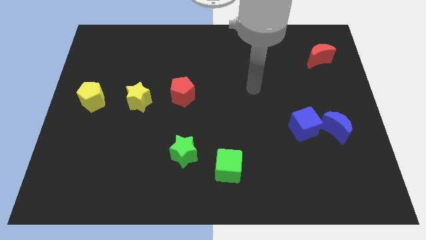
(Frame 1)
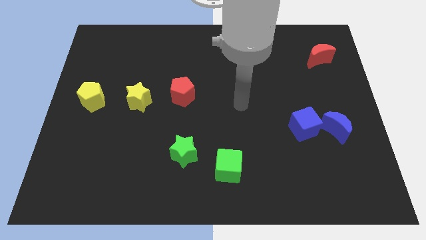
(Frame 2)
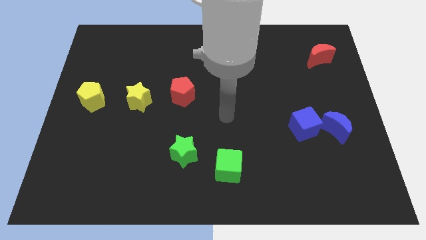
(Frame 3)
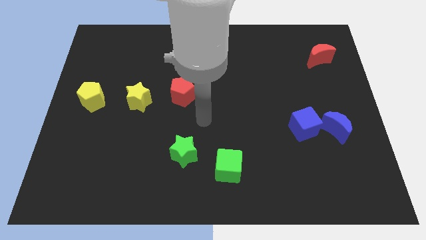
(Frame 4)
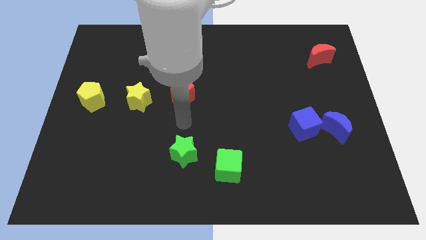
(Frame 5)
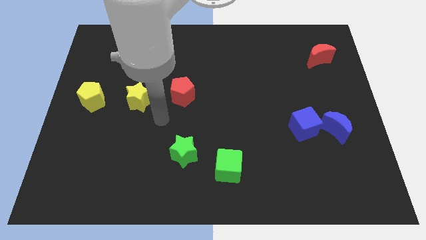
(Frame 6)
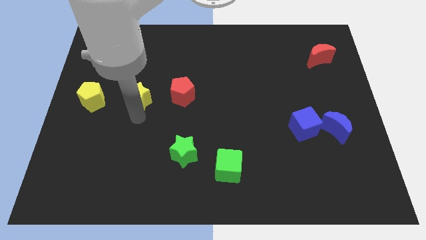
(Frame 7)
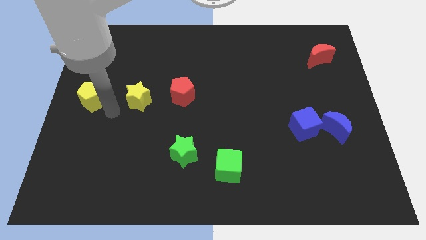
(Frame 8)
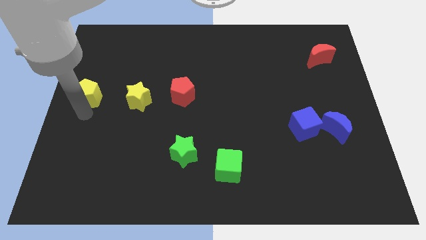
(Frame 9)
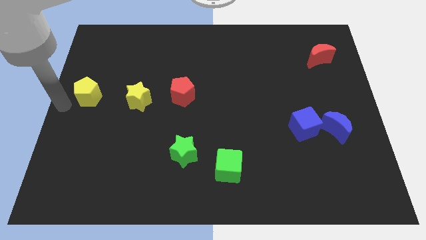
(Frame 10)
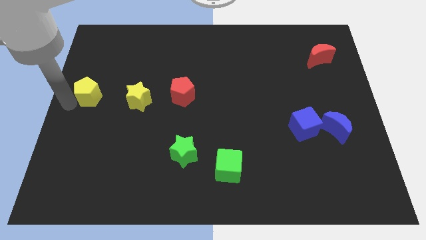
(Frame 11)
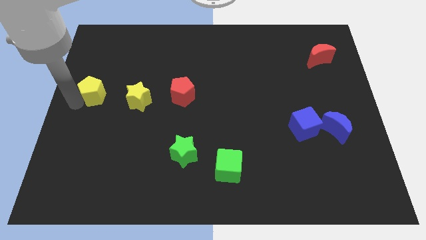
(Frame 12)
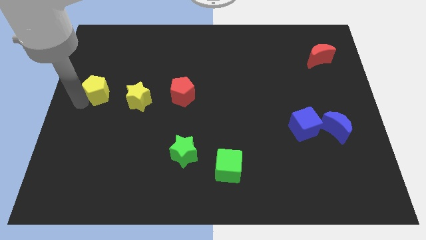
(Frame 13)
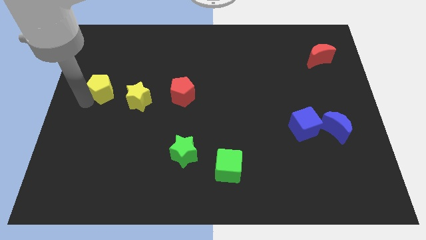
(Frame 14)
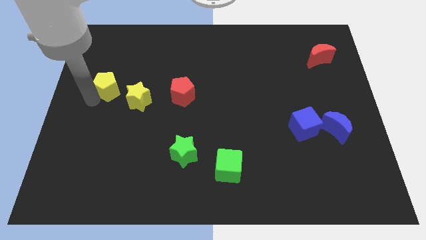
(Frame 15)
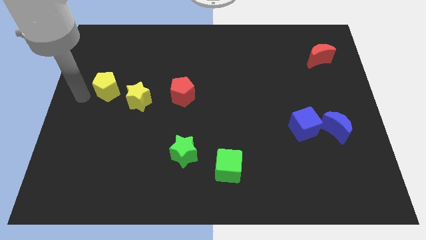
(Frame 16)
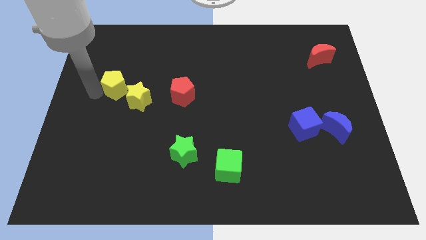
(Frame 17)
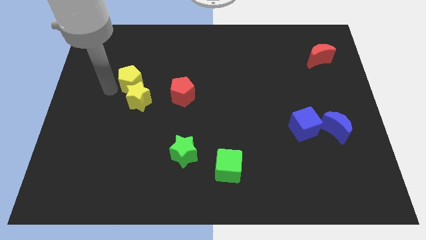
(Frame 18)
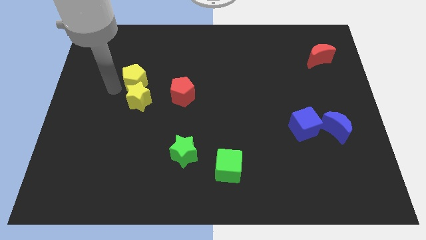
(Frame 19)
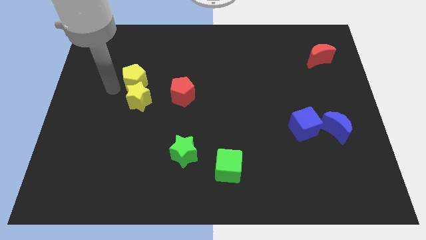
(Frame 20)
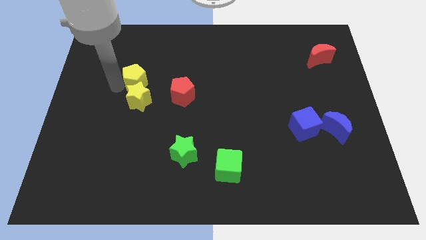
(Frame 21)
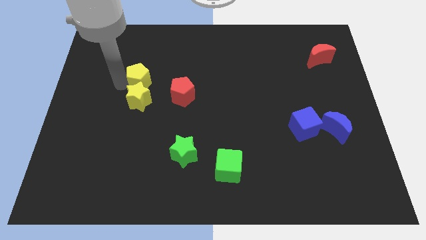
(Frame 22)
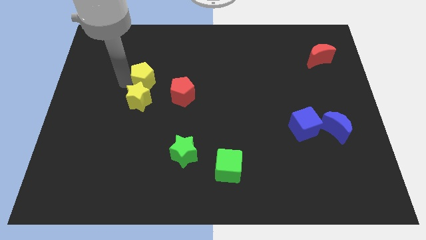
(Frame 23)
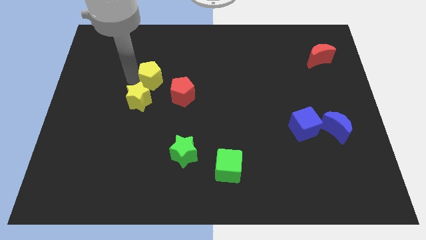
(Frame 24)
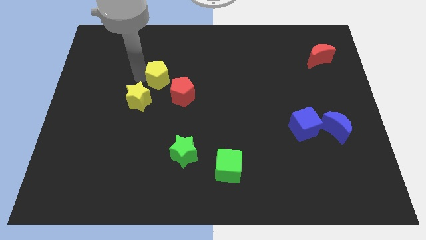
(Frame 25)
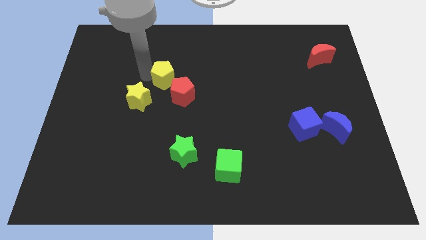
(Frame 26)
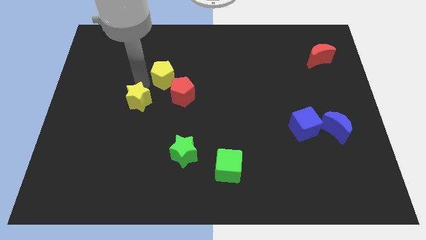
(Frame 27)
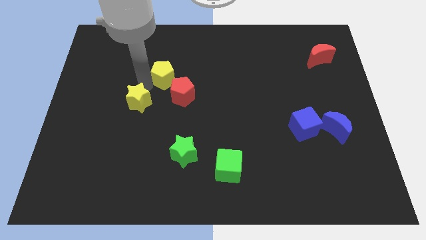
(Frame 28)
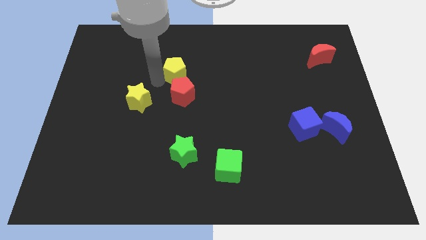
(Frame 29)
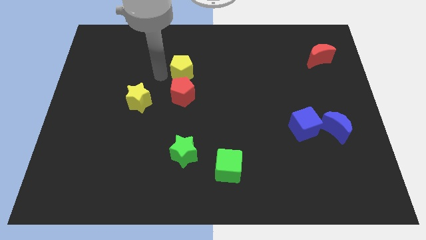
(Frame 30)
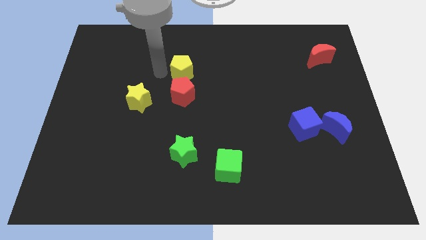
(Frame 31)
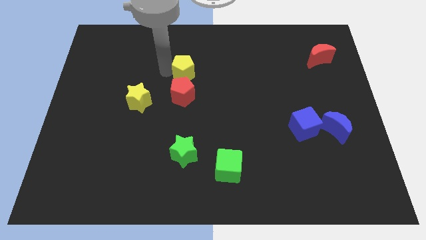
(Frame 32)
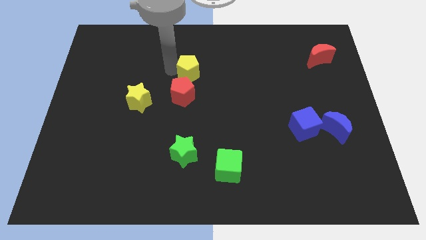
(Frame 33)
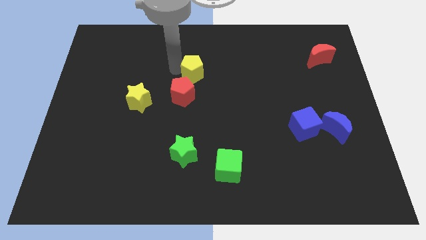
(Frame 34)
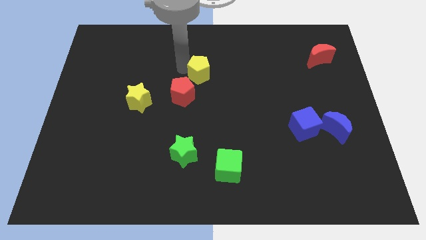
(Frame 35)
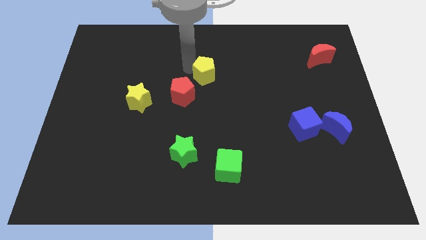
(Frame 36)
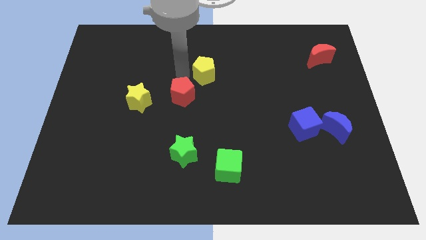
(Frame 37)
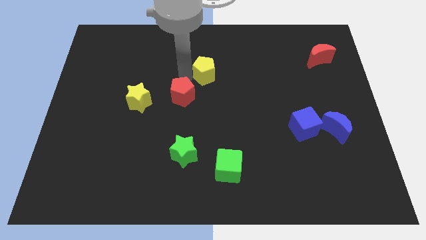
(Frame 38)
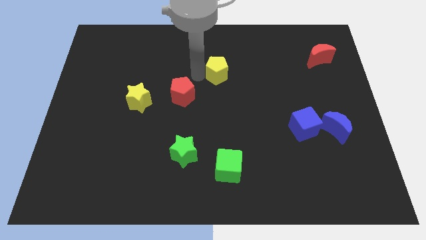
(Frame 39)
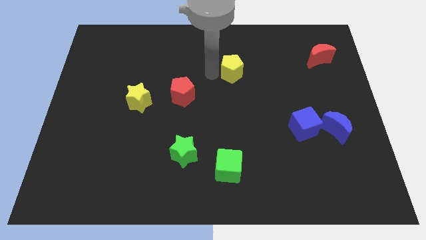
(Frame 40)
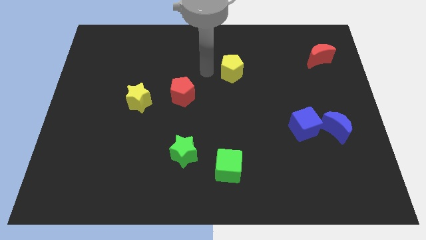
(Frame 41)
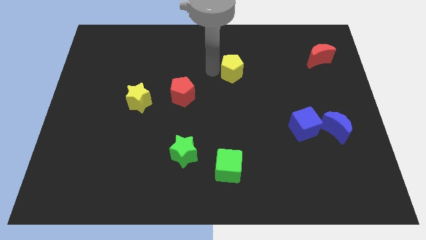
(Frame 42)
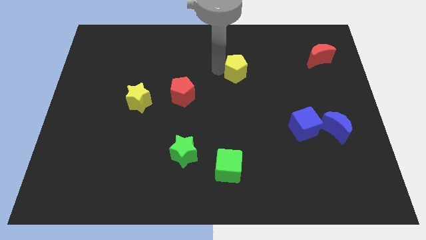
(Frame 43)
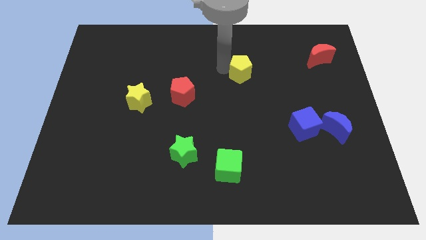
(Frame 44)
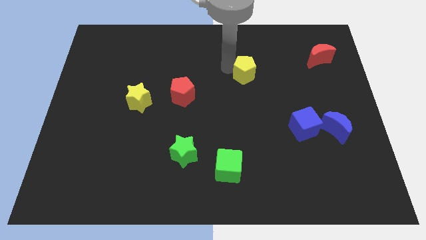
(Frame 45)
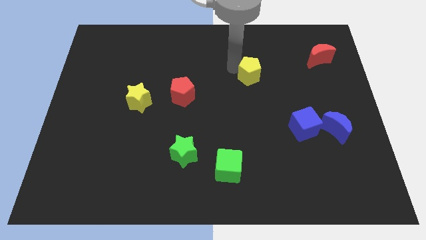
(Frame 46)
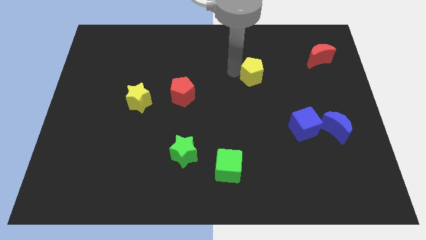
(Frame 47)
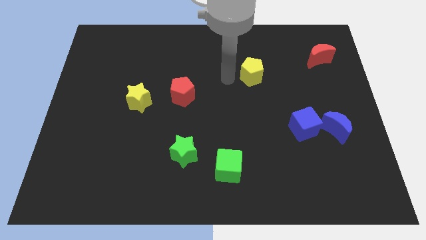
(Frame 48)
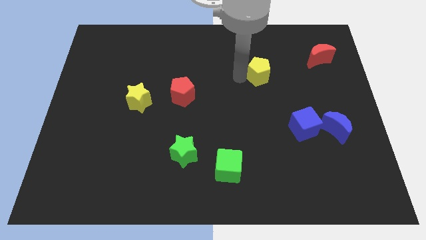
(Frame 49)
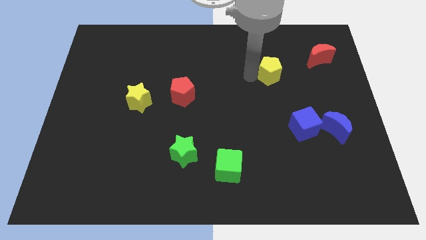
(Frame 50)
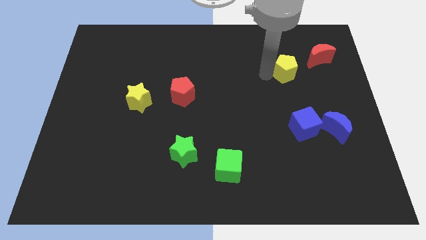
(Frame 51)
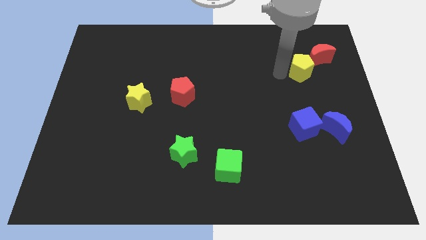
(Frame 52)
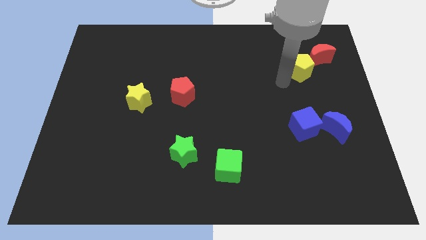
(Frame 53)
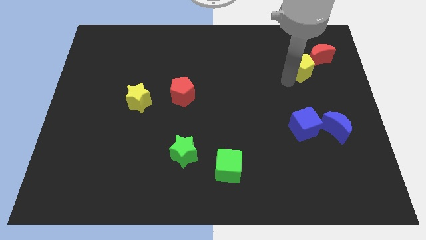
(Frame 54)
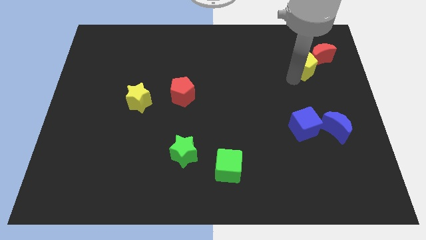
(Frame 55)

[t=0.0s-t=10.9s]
move the yellow pentagon to the red moon

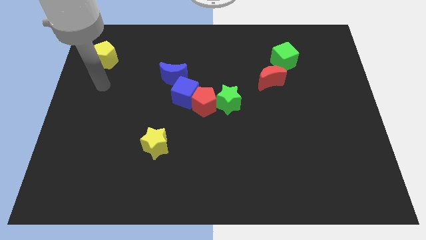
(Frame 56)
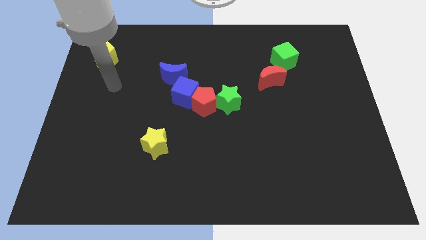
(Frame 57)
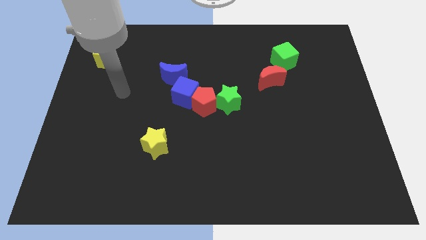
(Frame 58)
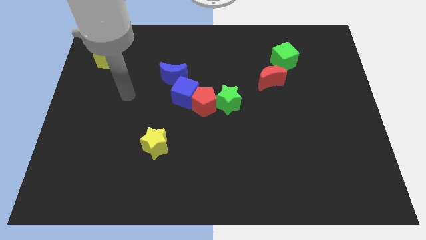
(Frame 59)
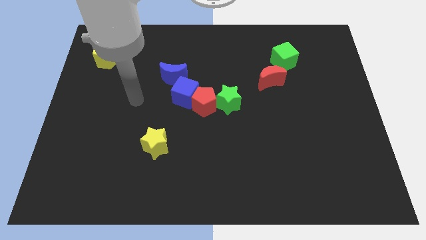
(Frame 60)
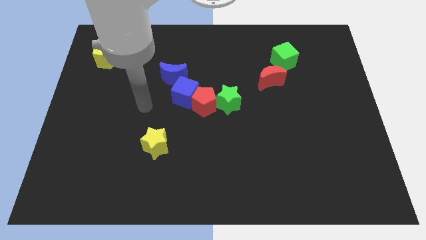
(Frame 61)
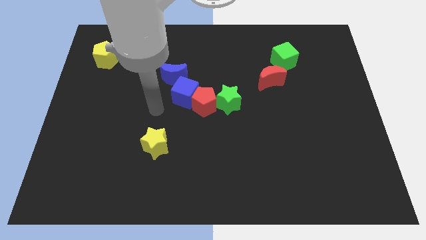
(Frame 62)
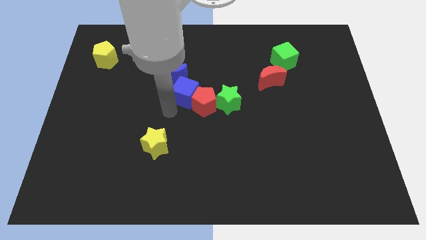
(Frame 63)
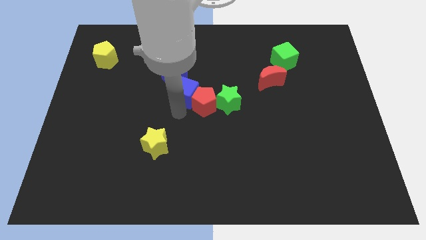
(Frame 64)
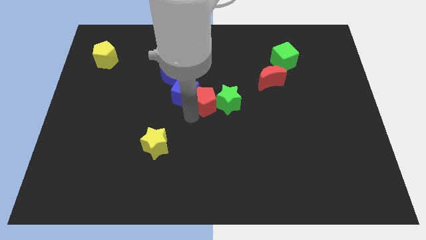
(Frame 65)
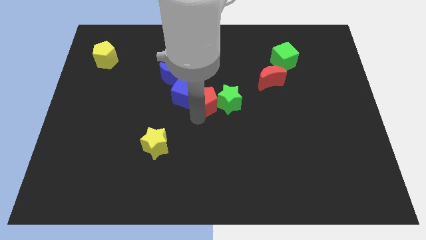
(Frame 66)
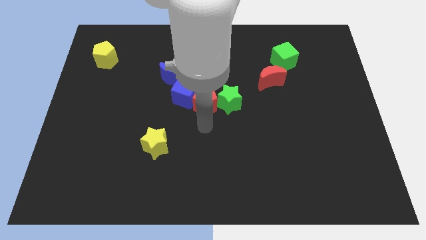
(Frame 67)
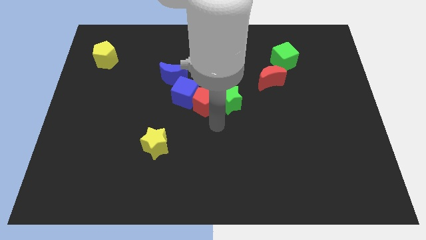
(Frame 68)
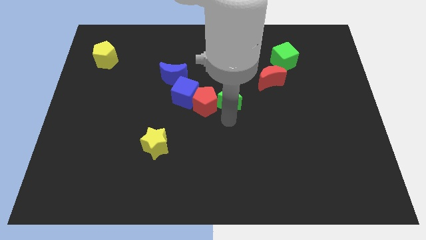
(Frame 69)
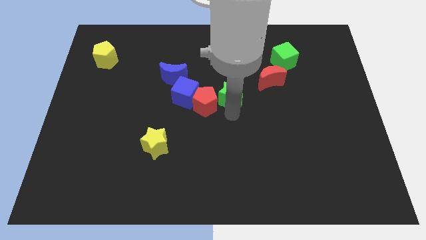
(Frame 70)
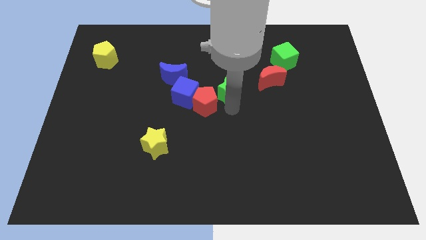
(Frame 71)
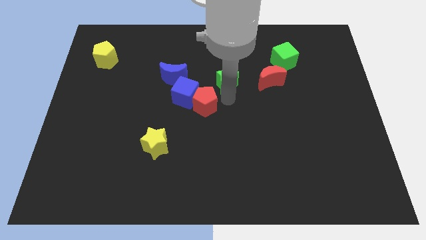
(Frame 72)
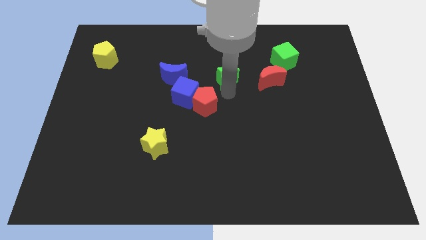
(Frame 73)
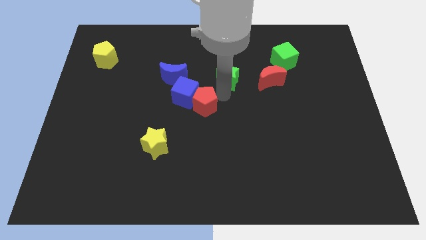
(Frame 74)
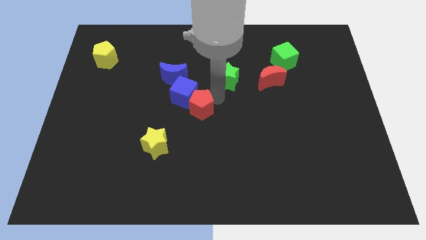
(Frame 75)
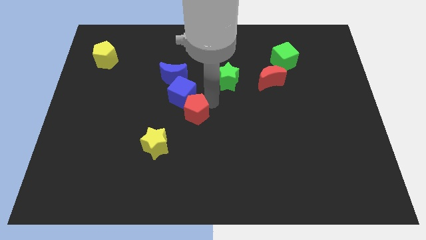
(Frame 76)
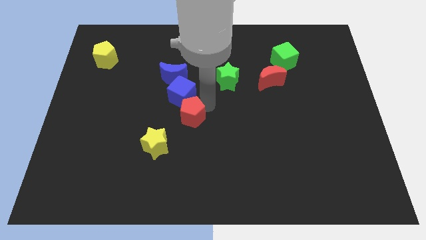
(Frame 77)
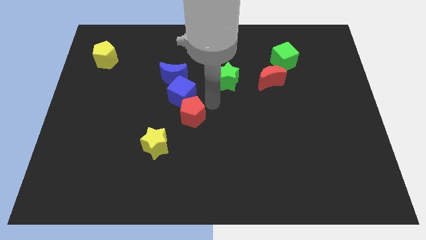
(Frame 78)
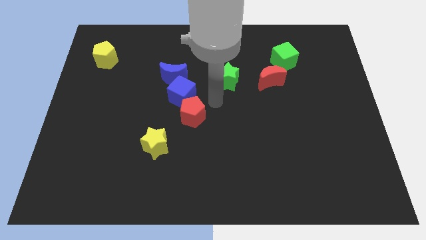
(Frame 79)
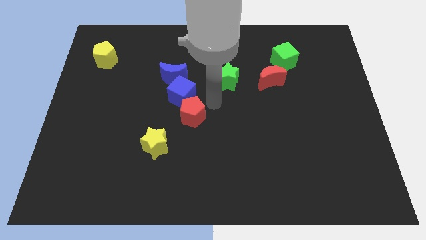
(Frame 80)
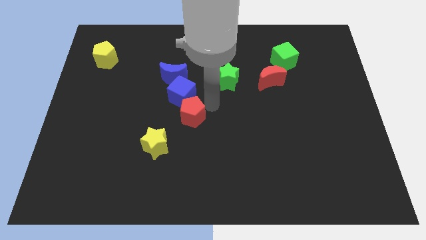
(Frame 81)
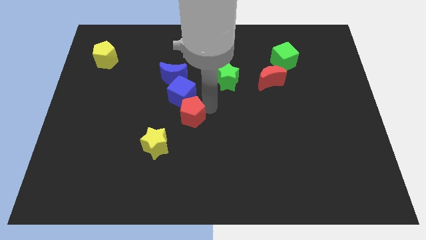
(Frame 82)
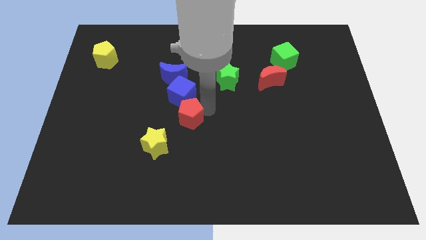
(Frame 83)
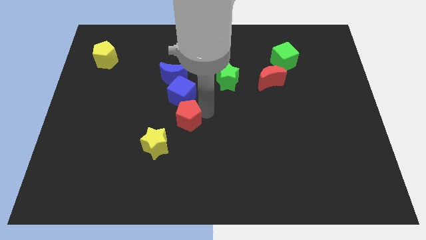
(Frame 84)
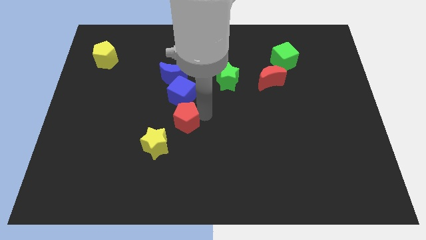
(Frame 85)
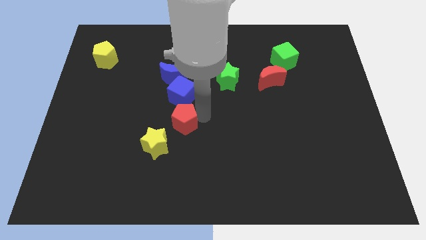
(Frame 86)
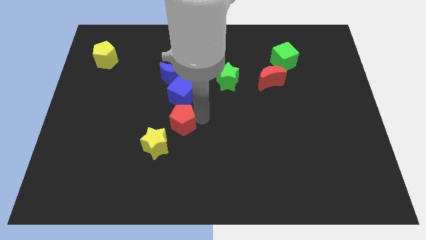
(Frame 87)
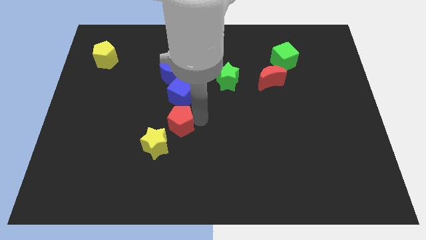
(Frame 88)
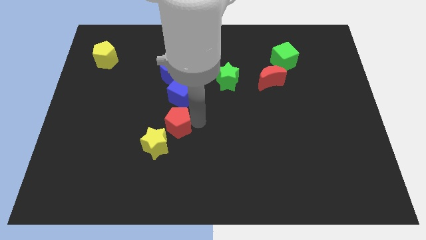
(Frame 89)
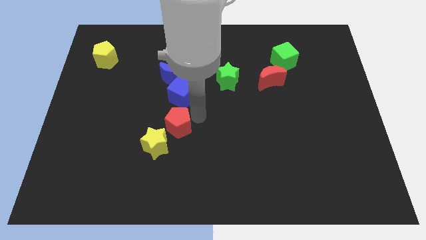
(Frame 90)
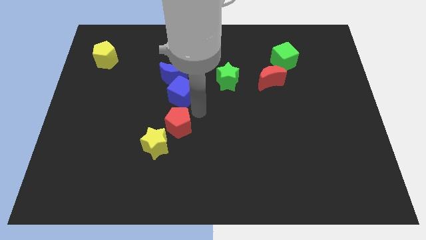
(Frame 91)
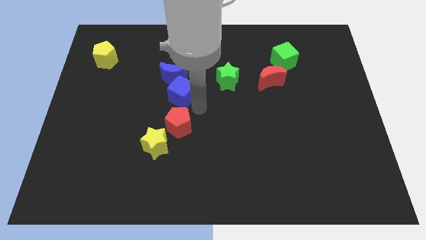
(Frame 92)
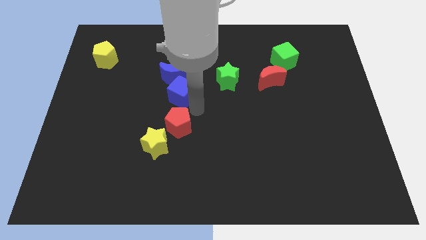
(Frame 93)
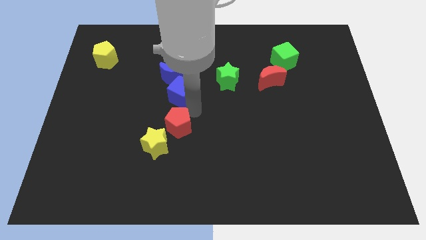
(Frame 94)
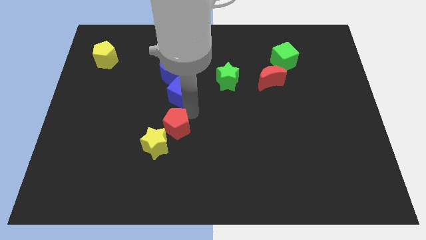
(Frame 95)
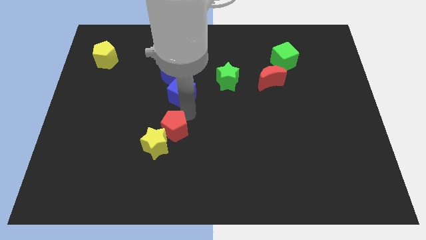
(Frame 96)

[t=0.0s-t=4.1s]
put the red pentagon next to the yellow star
